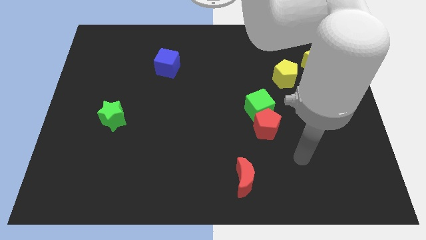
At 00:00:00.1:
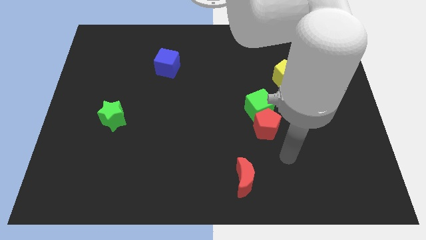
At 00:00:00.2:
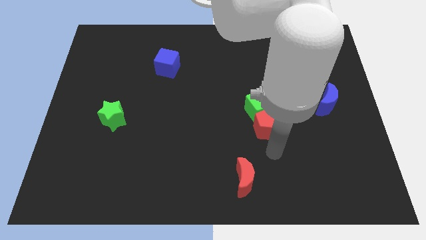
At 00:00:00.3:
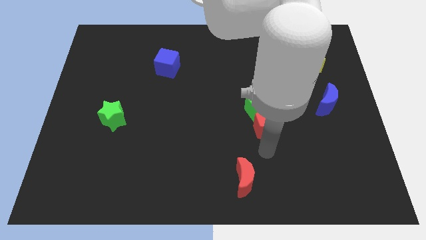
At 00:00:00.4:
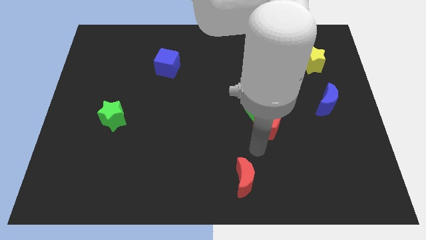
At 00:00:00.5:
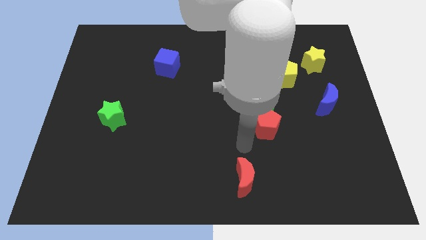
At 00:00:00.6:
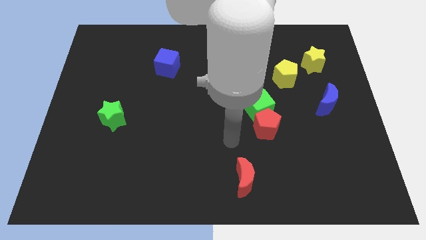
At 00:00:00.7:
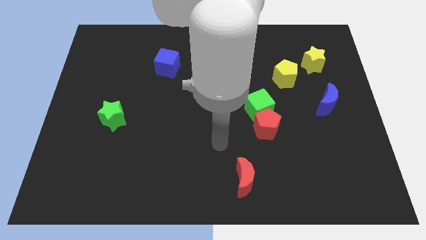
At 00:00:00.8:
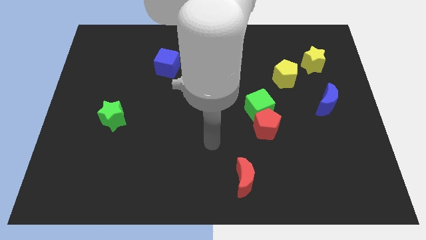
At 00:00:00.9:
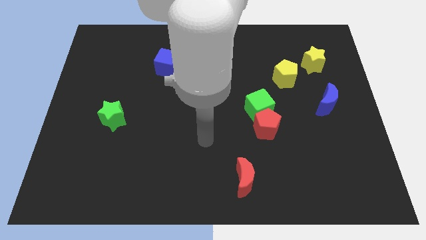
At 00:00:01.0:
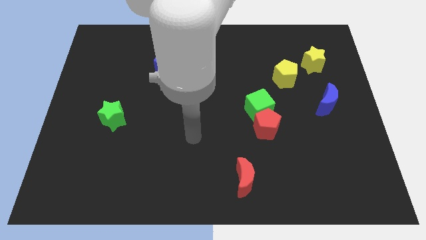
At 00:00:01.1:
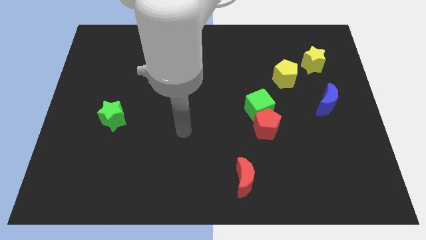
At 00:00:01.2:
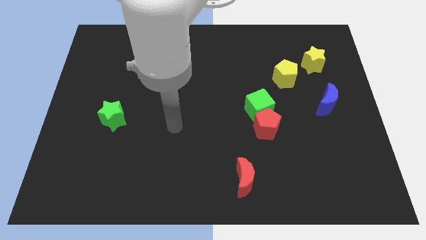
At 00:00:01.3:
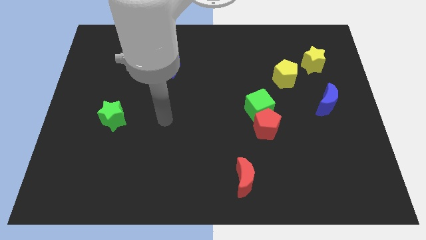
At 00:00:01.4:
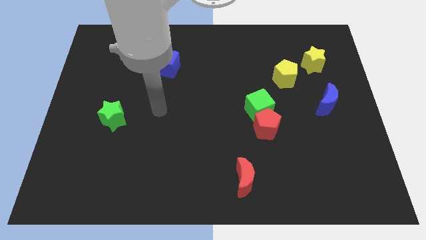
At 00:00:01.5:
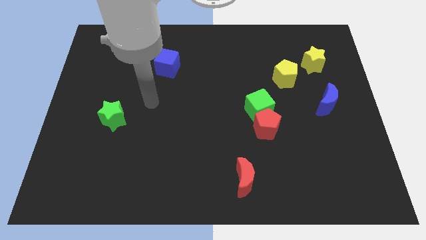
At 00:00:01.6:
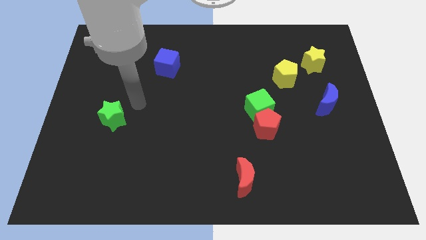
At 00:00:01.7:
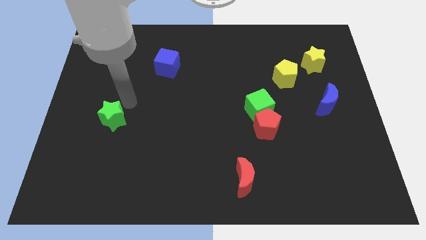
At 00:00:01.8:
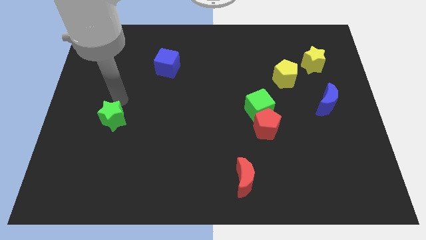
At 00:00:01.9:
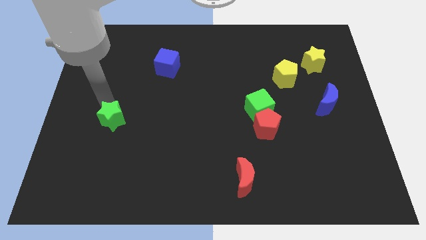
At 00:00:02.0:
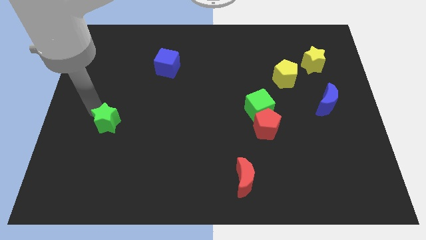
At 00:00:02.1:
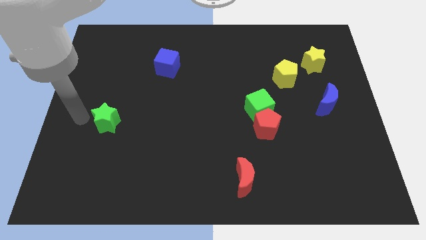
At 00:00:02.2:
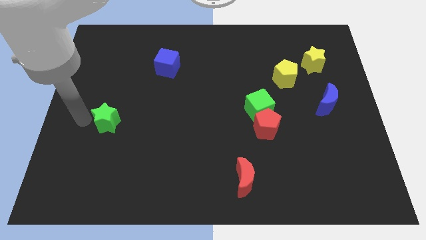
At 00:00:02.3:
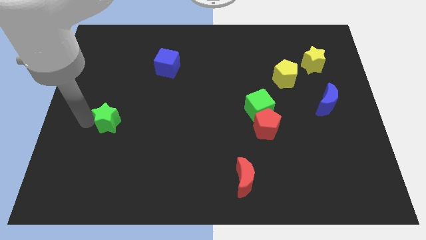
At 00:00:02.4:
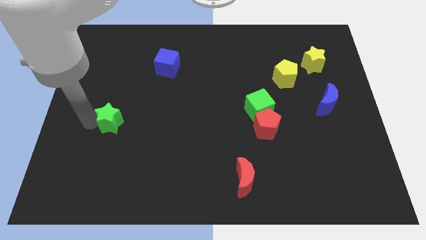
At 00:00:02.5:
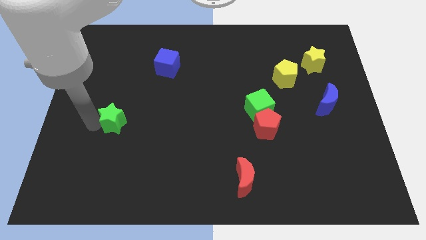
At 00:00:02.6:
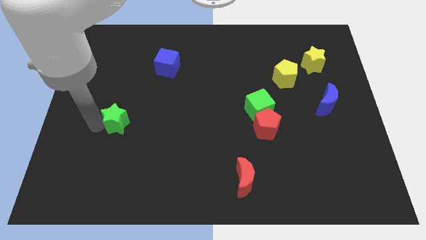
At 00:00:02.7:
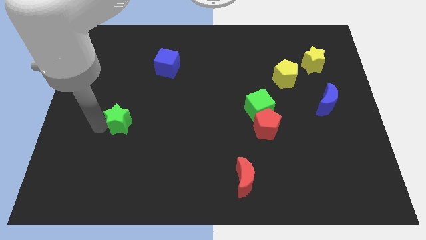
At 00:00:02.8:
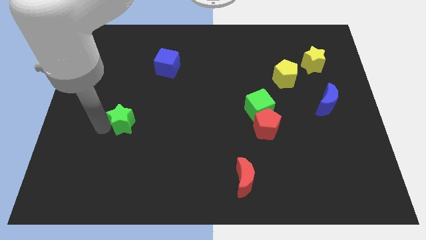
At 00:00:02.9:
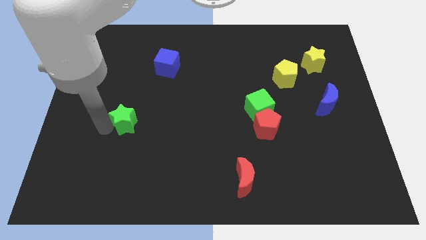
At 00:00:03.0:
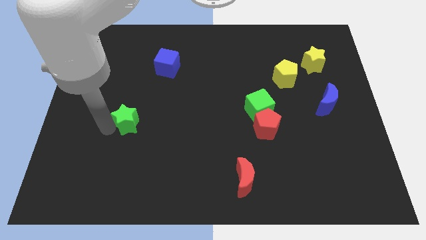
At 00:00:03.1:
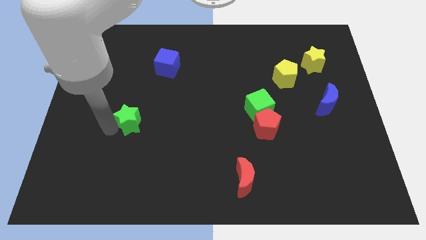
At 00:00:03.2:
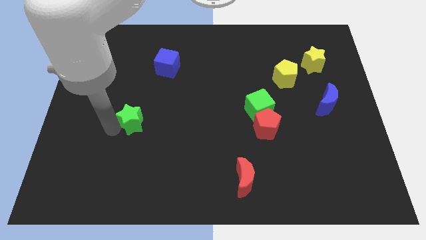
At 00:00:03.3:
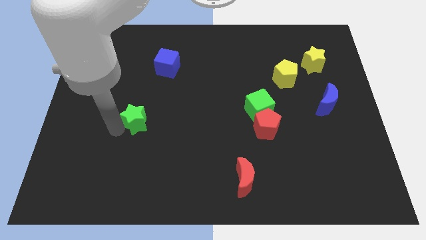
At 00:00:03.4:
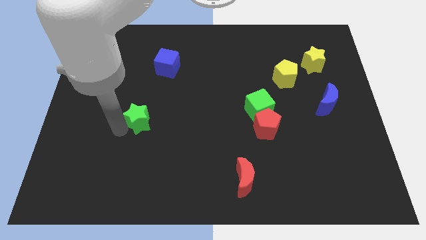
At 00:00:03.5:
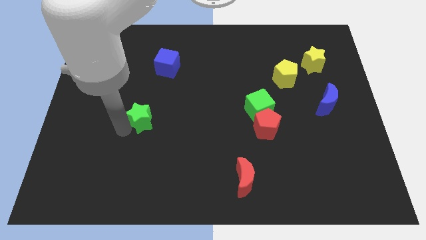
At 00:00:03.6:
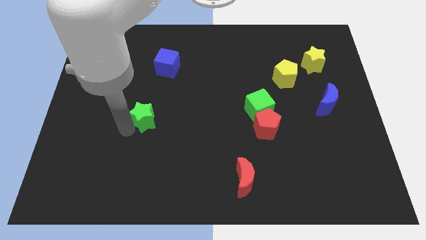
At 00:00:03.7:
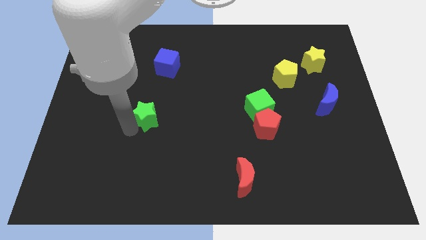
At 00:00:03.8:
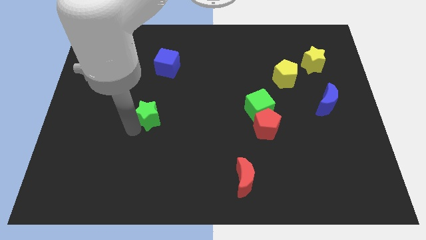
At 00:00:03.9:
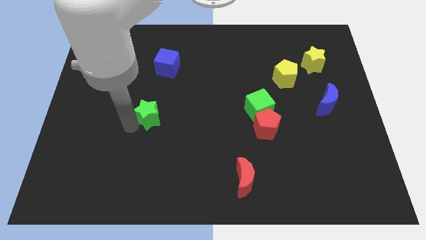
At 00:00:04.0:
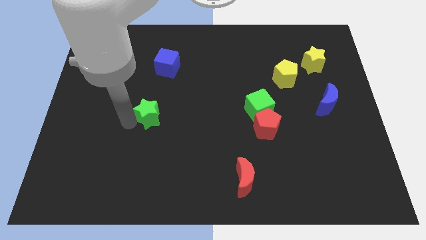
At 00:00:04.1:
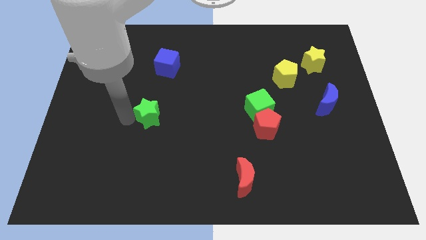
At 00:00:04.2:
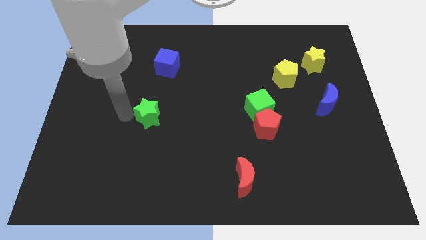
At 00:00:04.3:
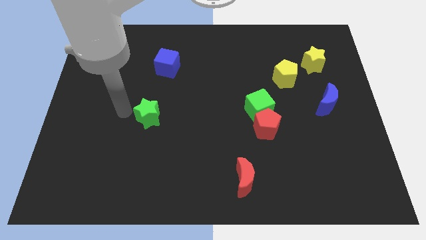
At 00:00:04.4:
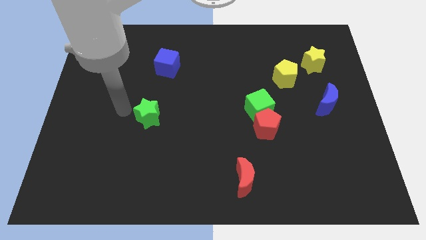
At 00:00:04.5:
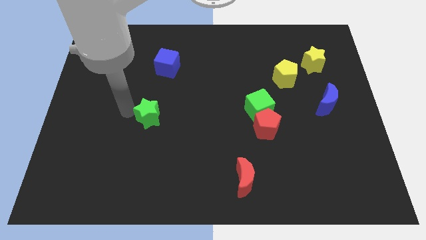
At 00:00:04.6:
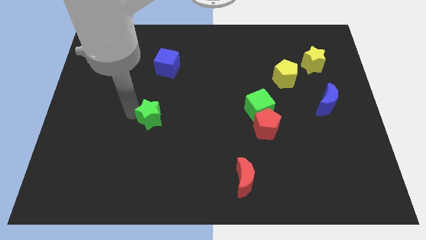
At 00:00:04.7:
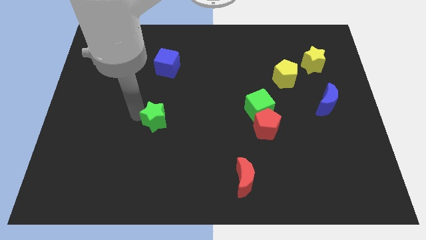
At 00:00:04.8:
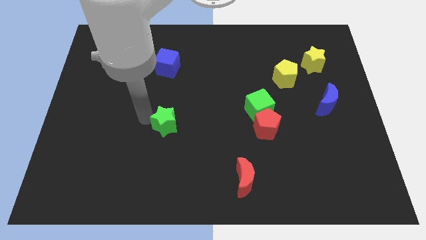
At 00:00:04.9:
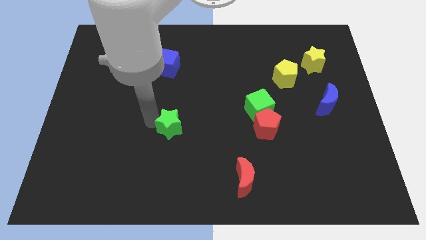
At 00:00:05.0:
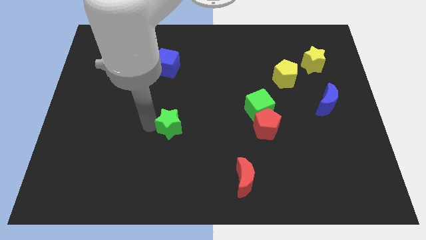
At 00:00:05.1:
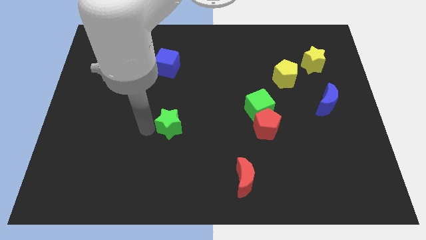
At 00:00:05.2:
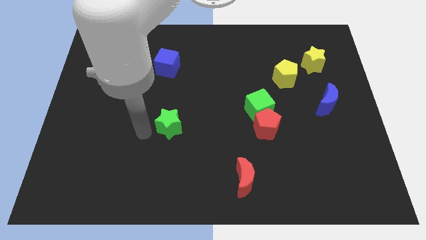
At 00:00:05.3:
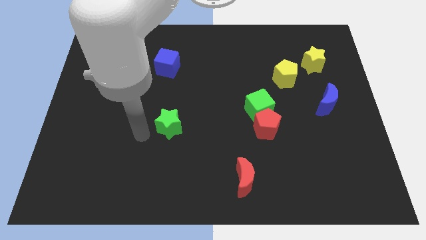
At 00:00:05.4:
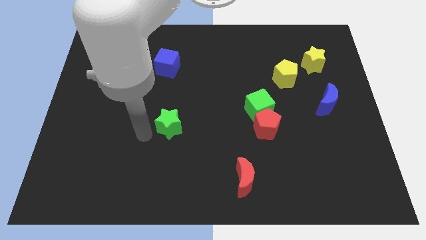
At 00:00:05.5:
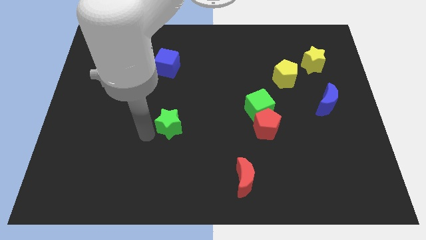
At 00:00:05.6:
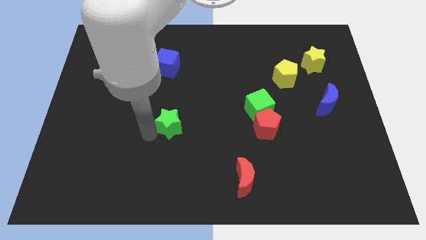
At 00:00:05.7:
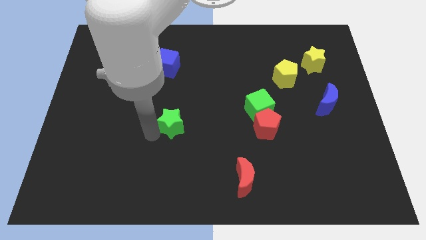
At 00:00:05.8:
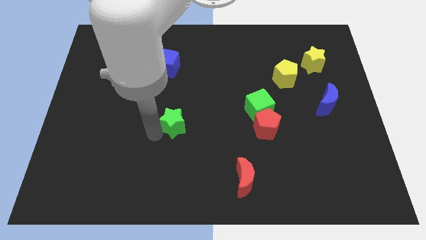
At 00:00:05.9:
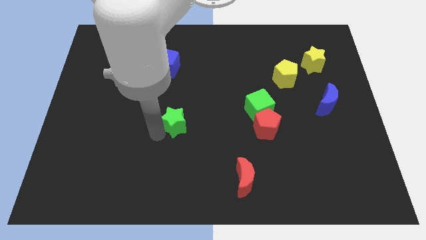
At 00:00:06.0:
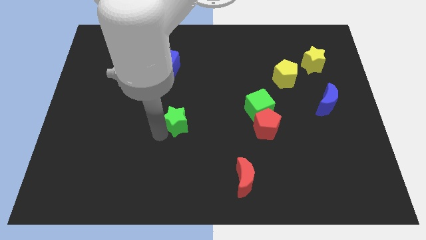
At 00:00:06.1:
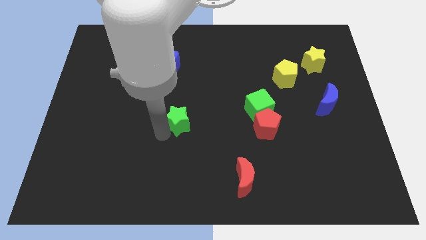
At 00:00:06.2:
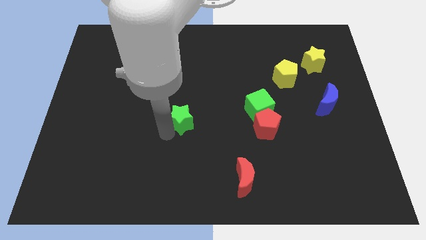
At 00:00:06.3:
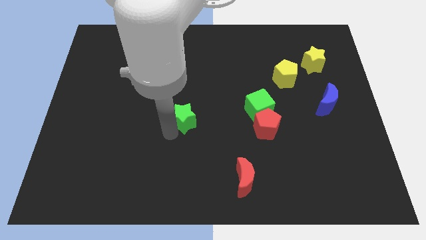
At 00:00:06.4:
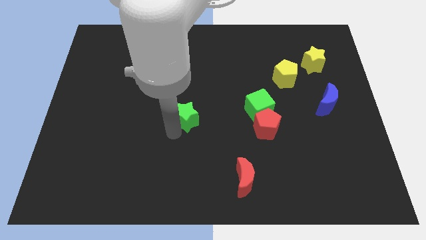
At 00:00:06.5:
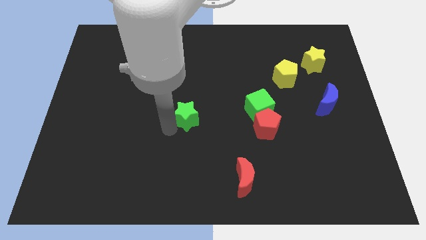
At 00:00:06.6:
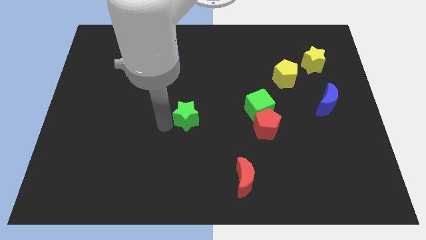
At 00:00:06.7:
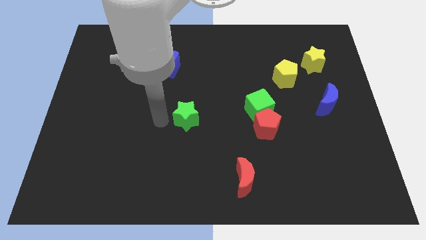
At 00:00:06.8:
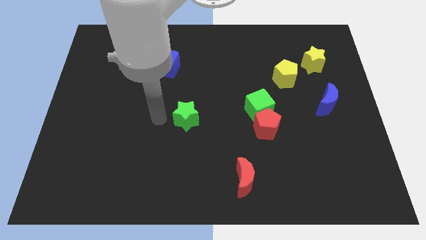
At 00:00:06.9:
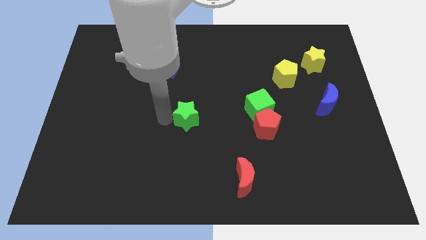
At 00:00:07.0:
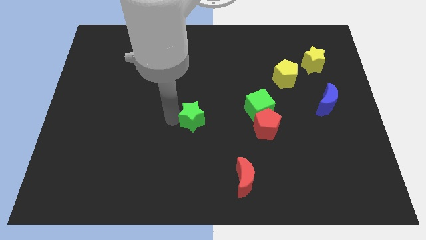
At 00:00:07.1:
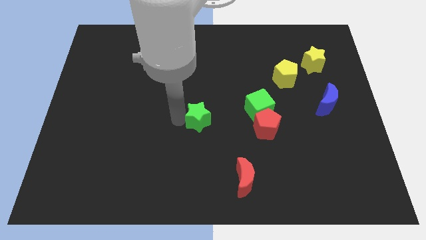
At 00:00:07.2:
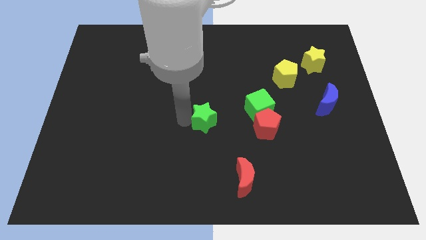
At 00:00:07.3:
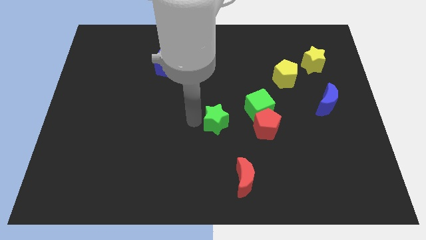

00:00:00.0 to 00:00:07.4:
move the green star diagonally down and to the left of the green cube

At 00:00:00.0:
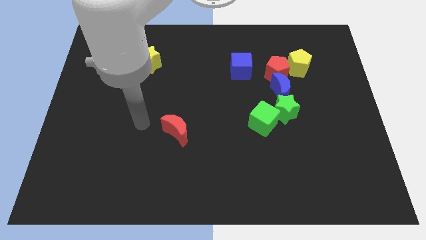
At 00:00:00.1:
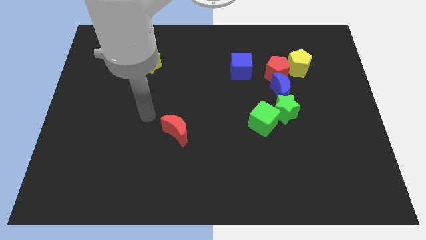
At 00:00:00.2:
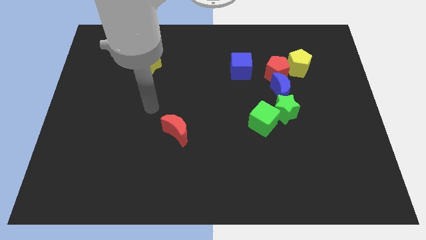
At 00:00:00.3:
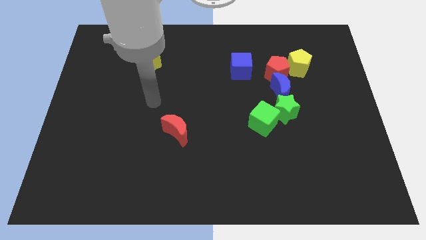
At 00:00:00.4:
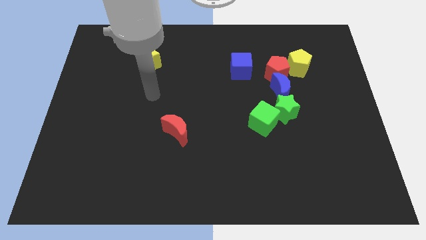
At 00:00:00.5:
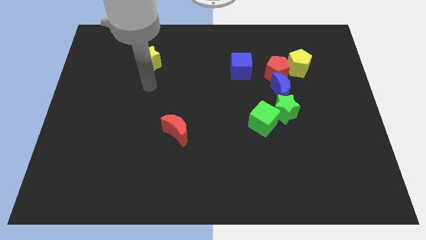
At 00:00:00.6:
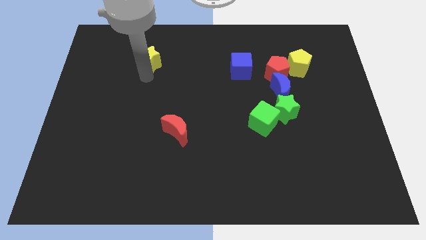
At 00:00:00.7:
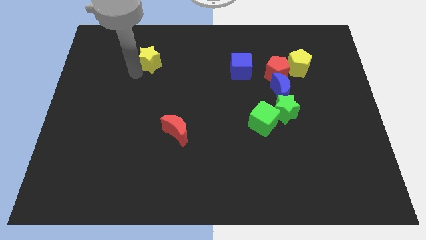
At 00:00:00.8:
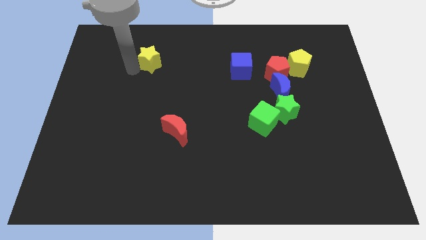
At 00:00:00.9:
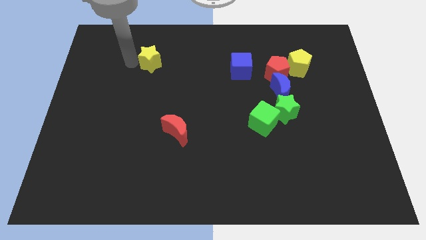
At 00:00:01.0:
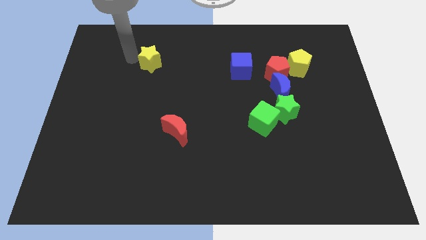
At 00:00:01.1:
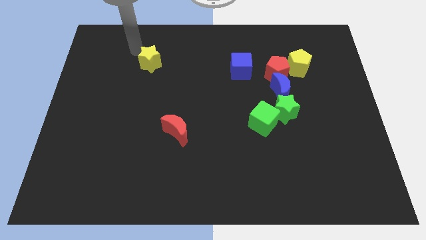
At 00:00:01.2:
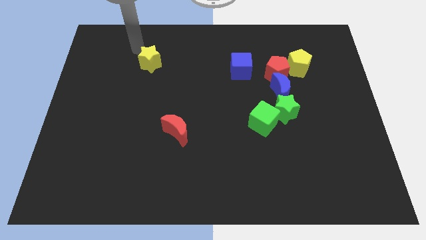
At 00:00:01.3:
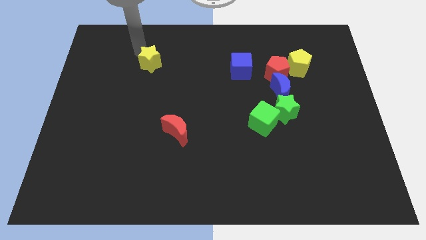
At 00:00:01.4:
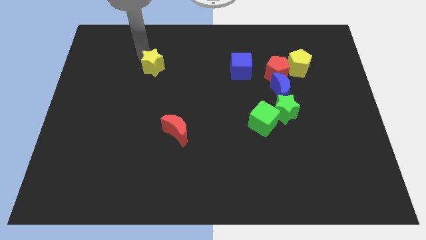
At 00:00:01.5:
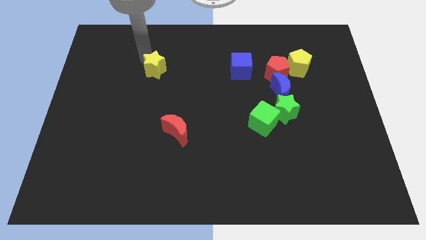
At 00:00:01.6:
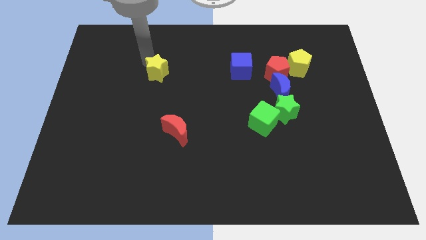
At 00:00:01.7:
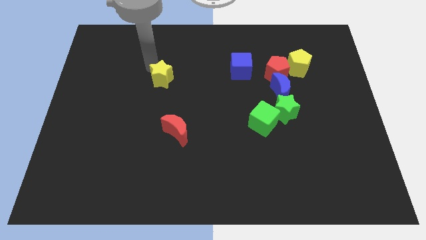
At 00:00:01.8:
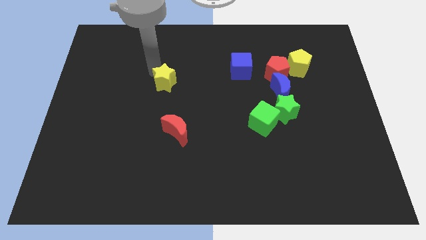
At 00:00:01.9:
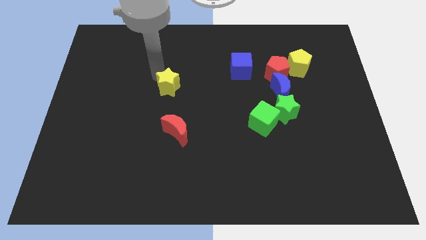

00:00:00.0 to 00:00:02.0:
push the yellow star to the top side of the red moon
